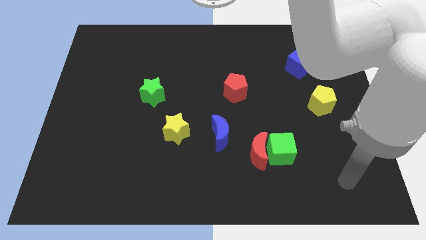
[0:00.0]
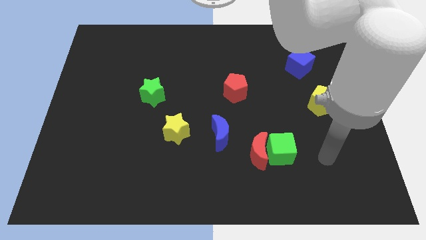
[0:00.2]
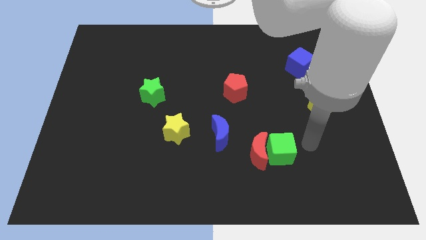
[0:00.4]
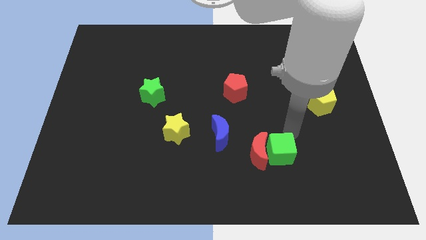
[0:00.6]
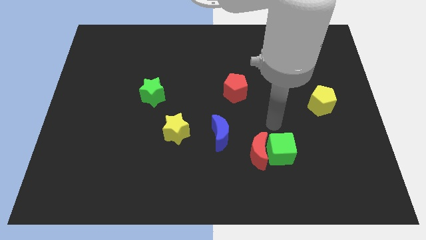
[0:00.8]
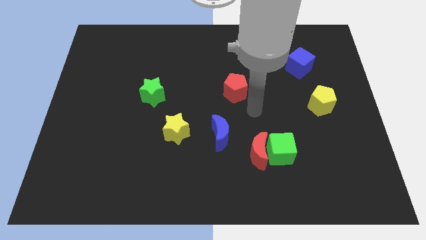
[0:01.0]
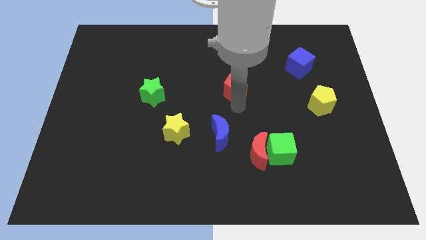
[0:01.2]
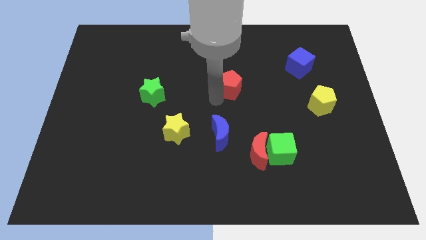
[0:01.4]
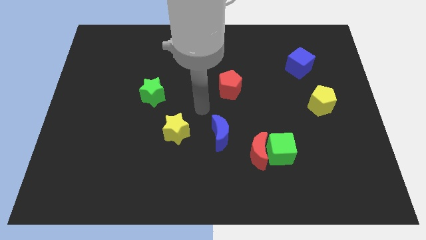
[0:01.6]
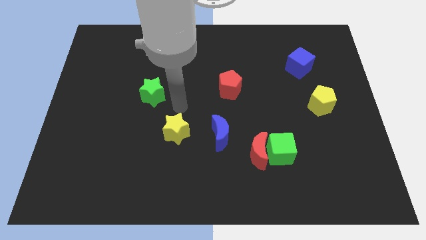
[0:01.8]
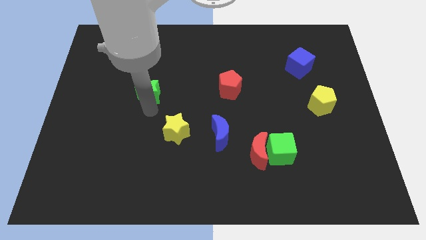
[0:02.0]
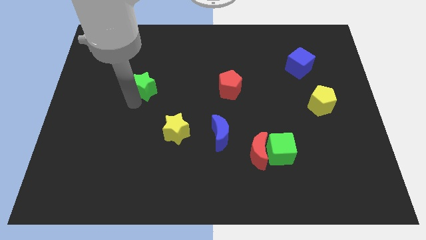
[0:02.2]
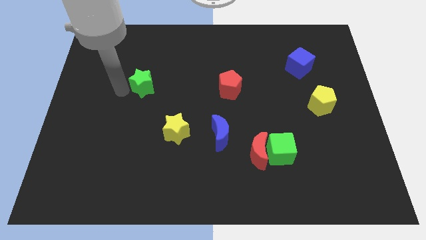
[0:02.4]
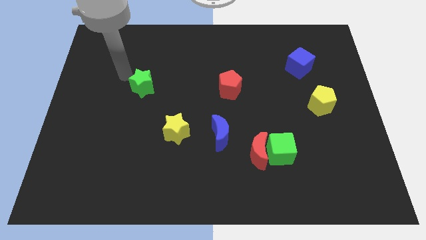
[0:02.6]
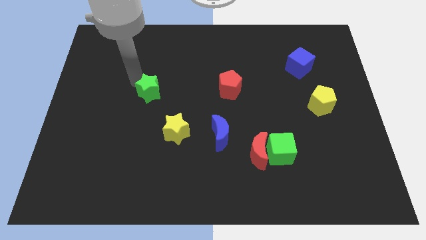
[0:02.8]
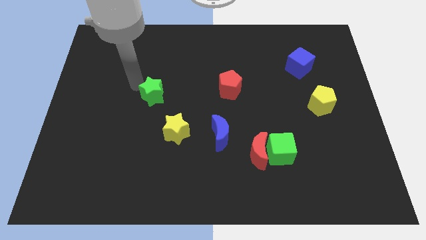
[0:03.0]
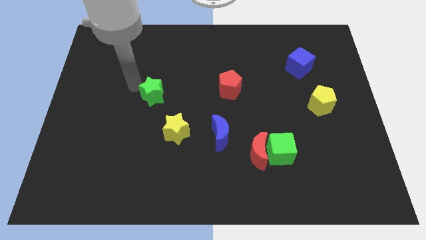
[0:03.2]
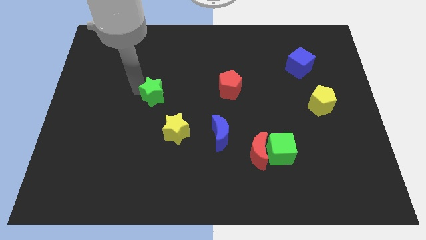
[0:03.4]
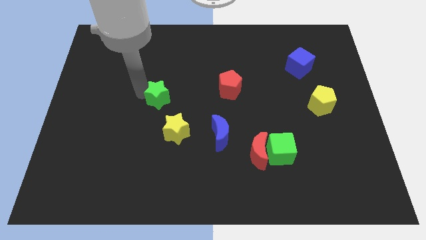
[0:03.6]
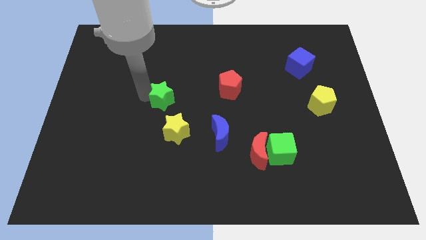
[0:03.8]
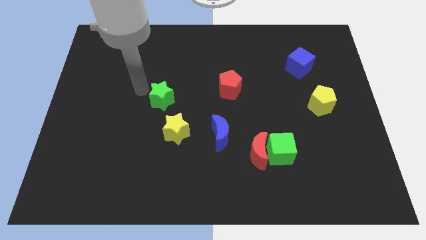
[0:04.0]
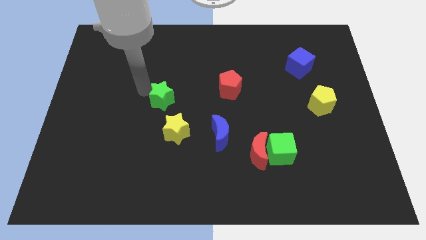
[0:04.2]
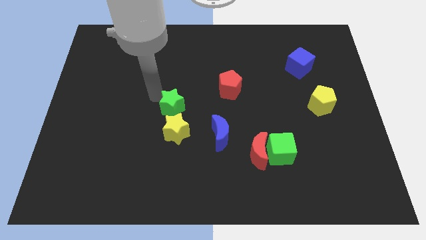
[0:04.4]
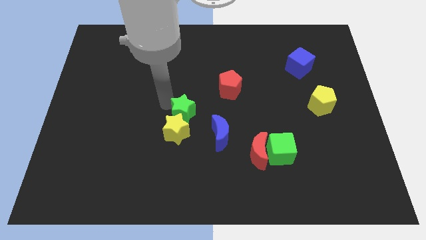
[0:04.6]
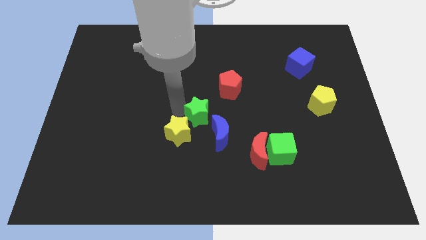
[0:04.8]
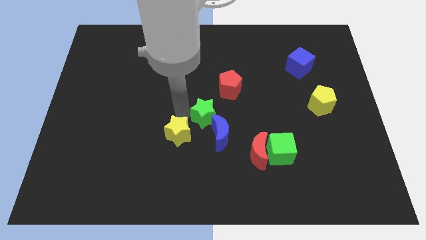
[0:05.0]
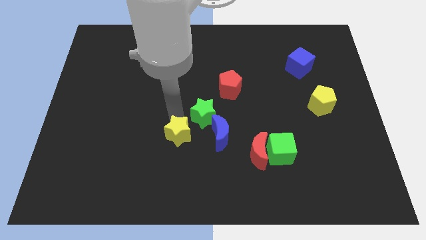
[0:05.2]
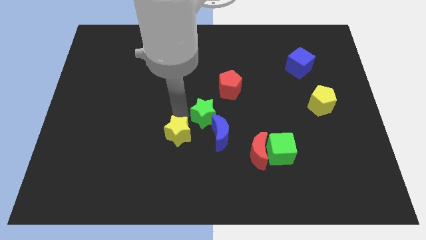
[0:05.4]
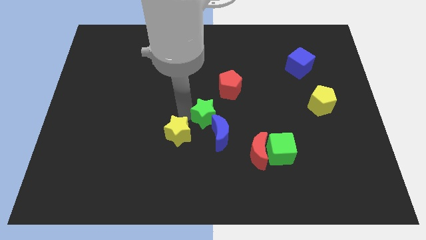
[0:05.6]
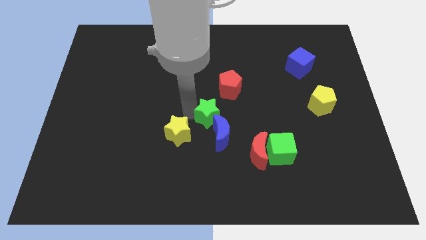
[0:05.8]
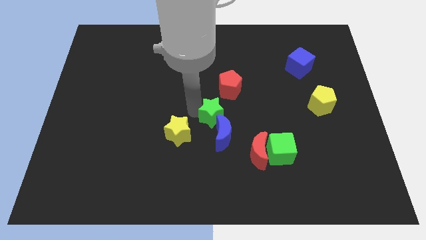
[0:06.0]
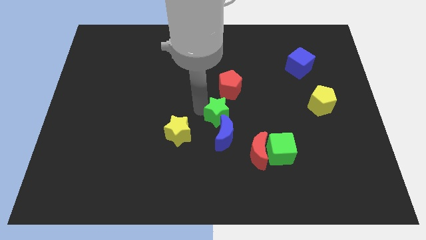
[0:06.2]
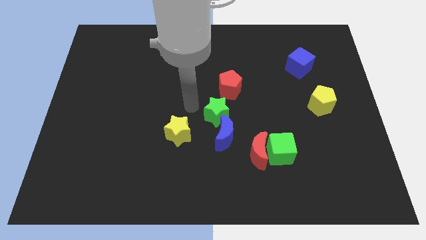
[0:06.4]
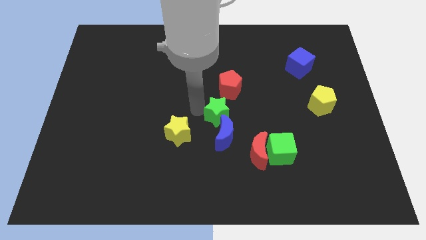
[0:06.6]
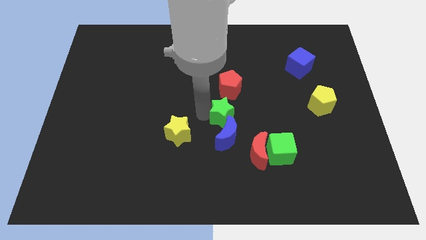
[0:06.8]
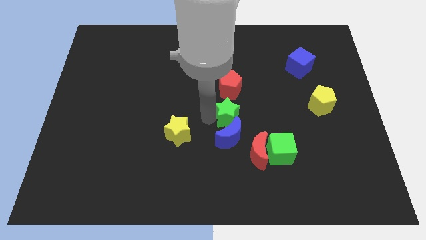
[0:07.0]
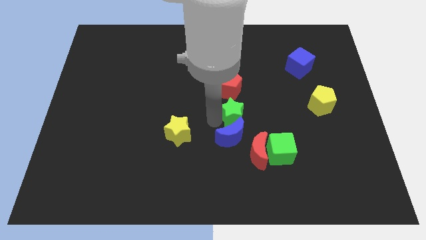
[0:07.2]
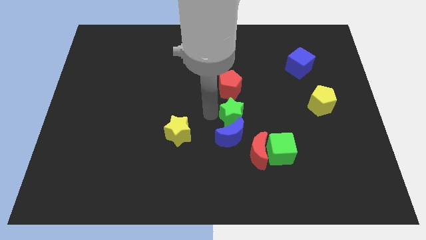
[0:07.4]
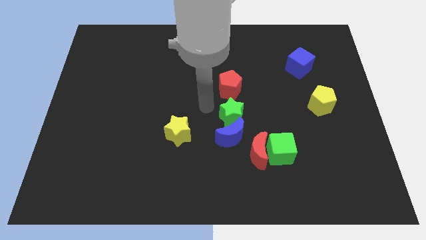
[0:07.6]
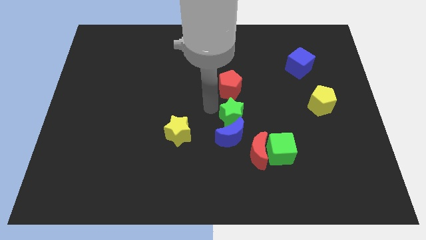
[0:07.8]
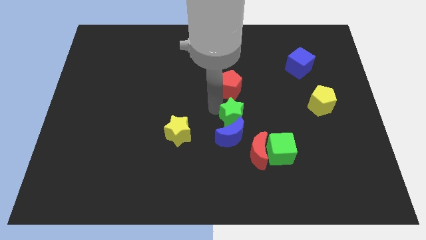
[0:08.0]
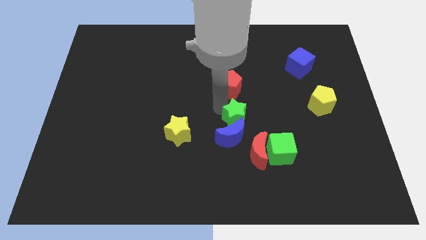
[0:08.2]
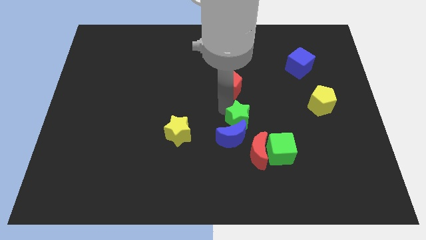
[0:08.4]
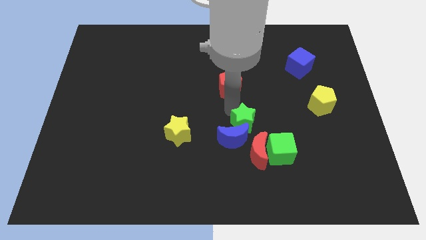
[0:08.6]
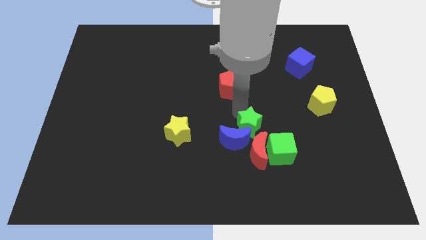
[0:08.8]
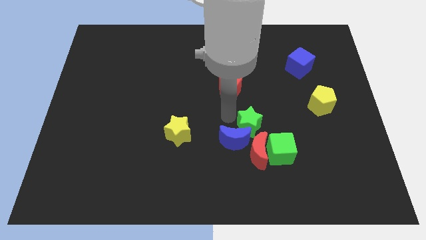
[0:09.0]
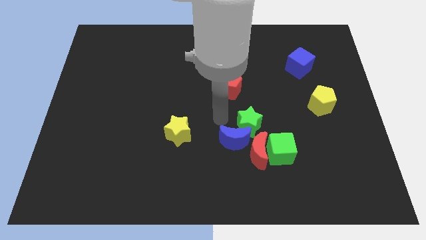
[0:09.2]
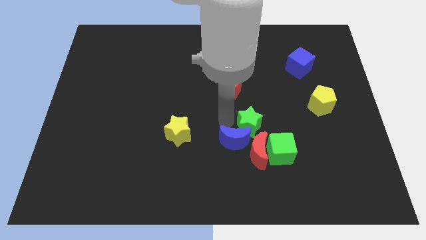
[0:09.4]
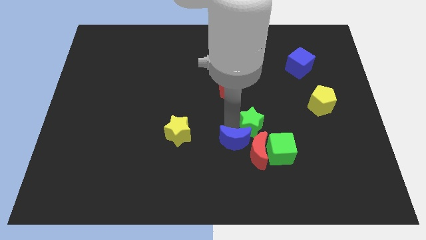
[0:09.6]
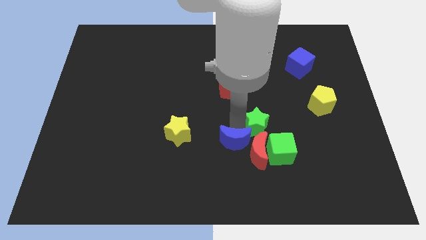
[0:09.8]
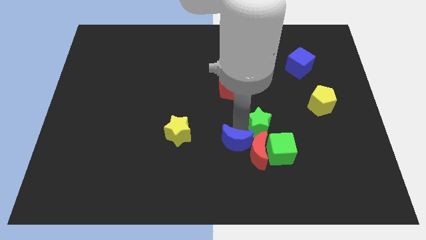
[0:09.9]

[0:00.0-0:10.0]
move the green star diagonally up and to the right of the red moon

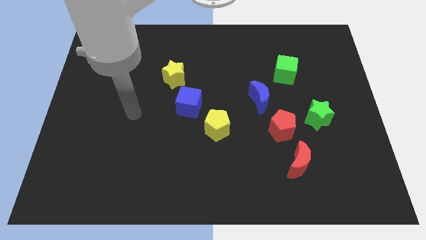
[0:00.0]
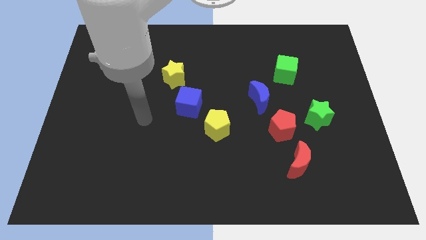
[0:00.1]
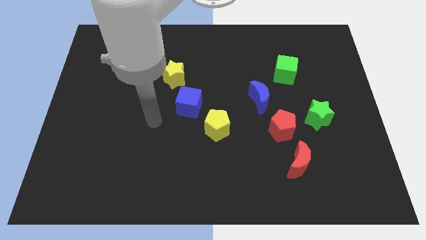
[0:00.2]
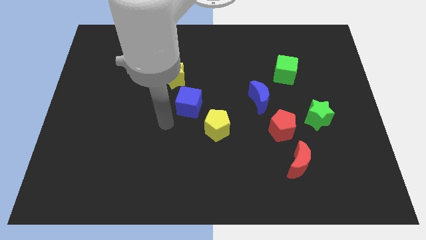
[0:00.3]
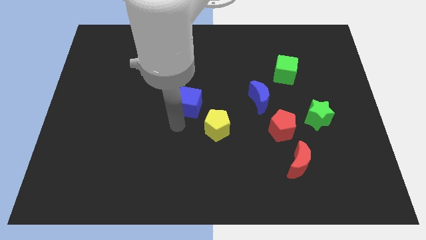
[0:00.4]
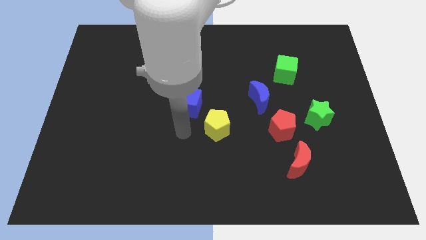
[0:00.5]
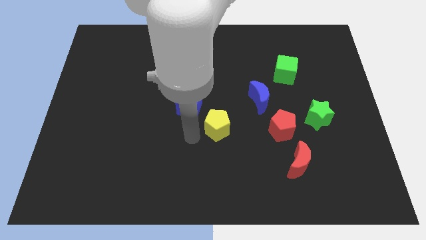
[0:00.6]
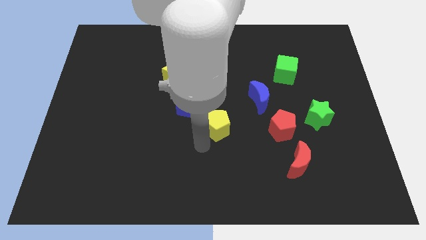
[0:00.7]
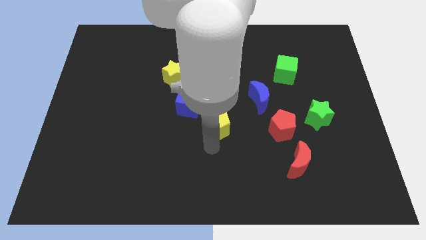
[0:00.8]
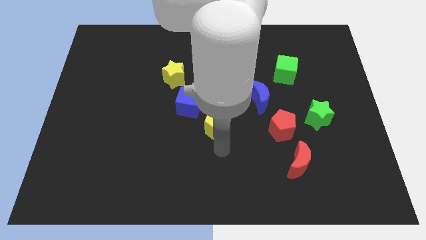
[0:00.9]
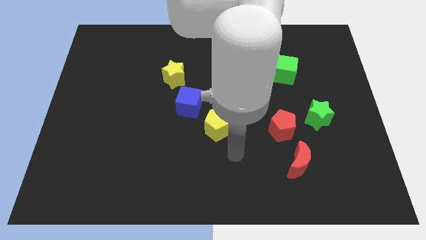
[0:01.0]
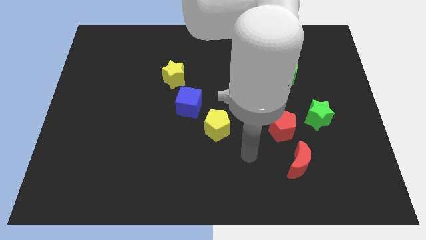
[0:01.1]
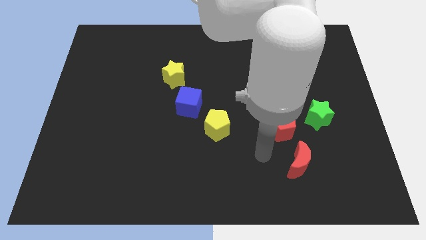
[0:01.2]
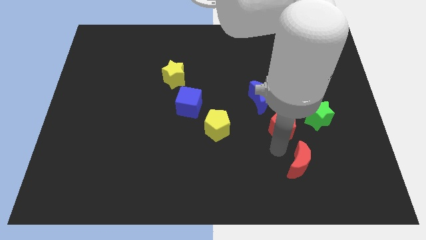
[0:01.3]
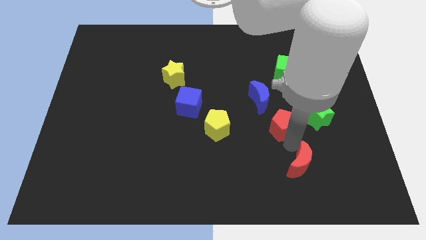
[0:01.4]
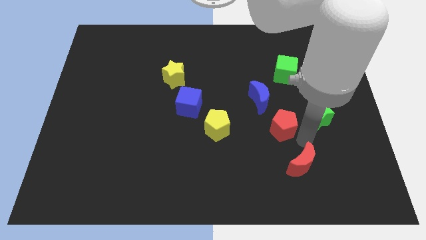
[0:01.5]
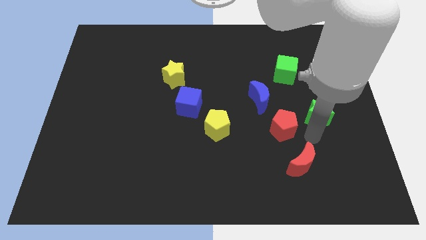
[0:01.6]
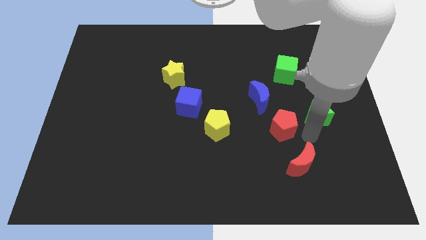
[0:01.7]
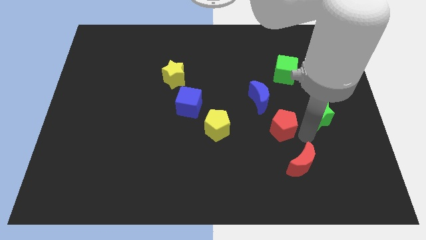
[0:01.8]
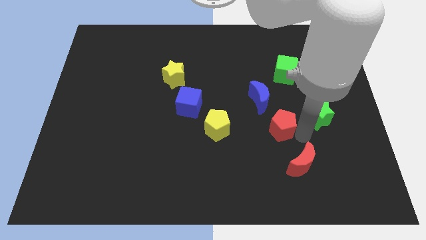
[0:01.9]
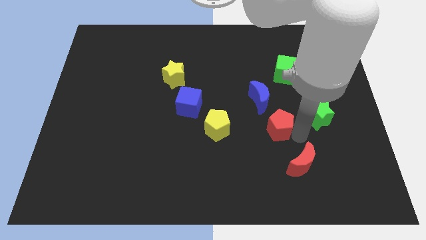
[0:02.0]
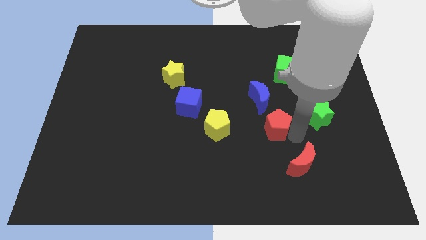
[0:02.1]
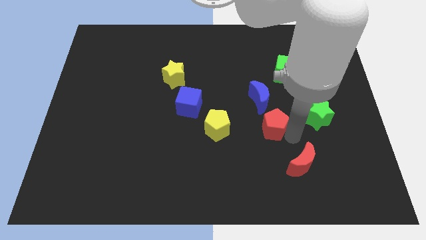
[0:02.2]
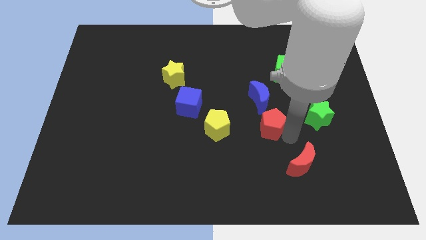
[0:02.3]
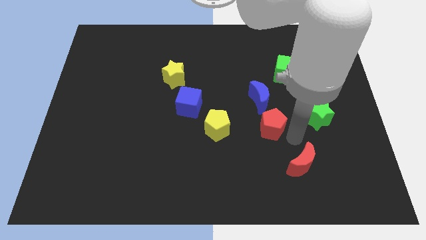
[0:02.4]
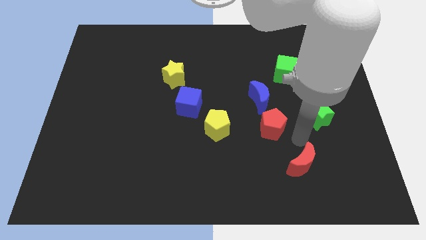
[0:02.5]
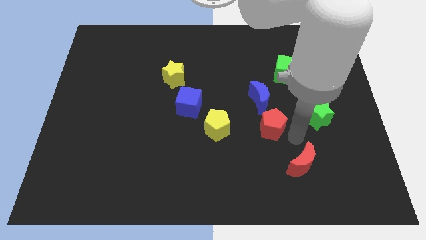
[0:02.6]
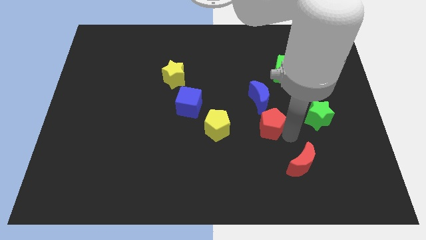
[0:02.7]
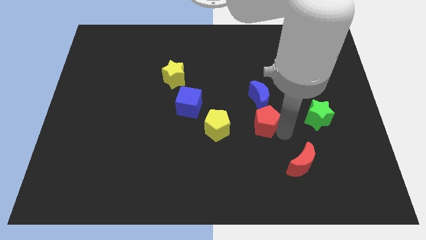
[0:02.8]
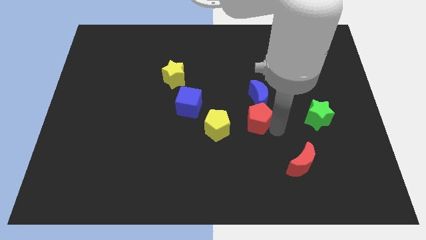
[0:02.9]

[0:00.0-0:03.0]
put the red pentagon to the bottom left side of the blue moon
